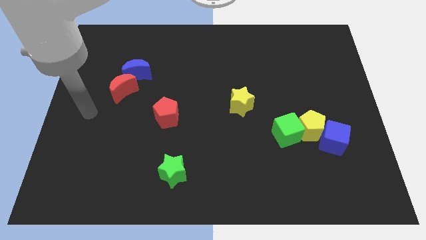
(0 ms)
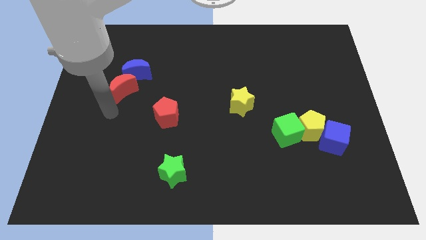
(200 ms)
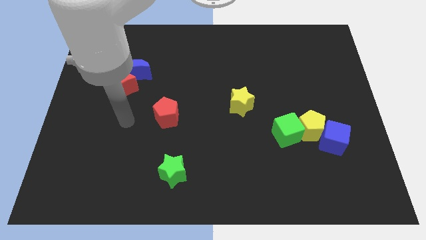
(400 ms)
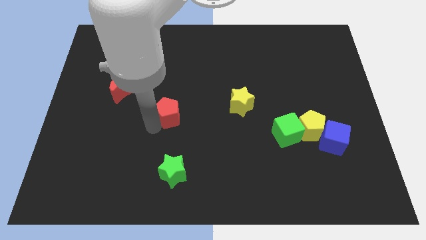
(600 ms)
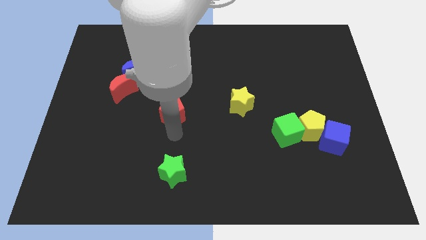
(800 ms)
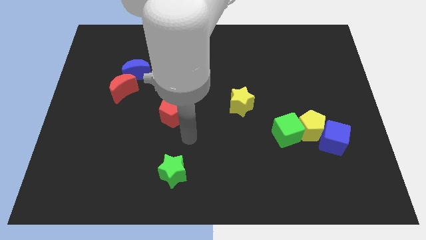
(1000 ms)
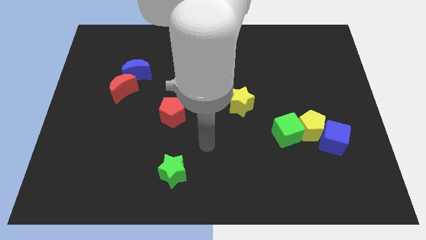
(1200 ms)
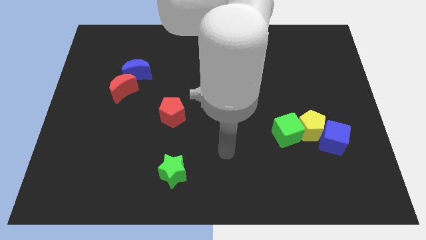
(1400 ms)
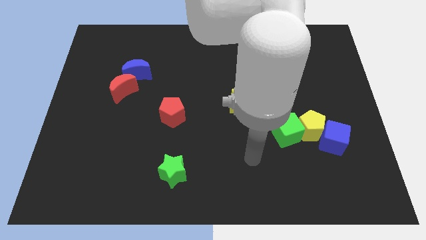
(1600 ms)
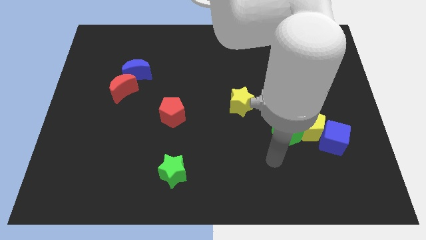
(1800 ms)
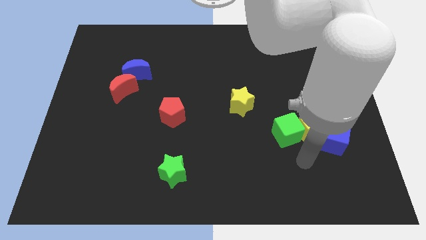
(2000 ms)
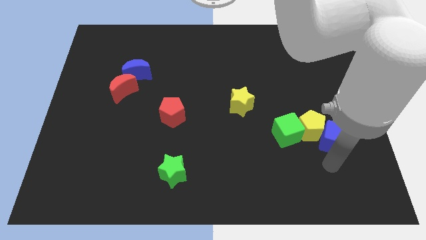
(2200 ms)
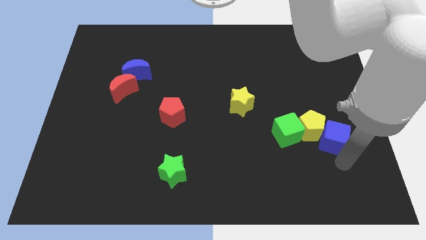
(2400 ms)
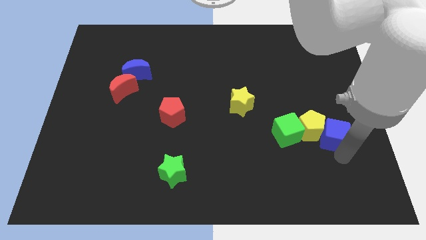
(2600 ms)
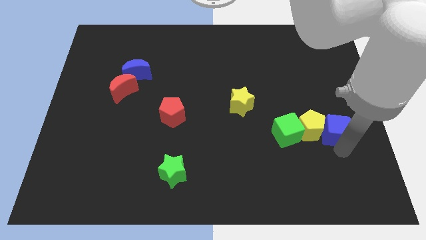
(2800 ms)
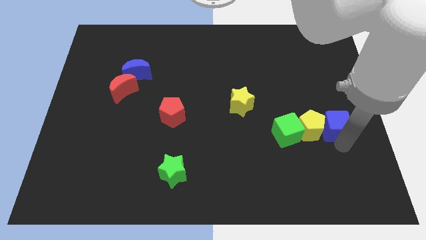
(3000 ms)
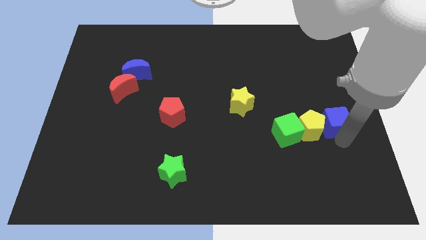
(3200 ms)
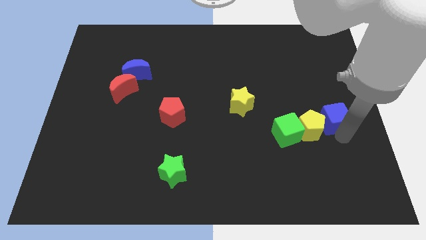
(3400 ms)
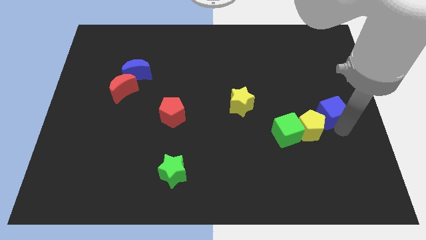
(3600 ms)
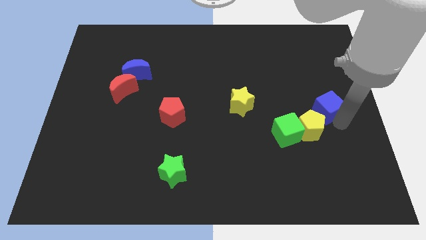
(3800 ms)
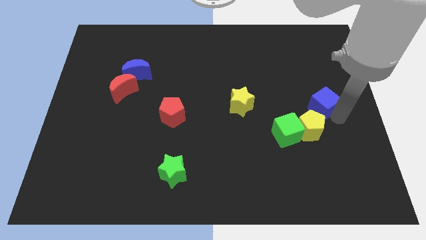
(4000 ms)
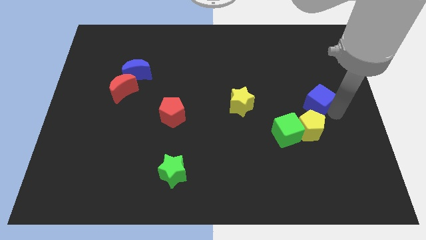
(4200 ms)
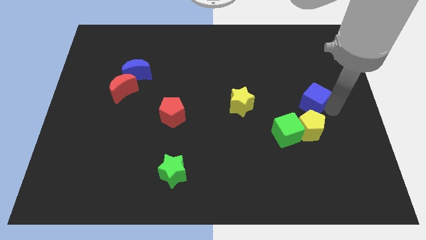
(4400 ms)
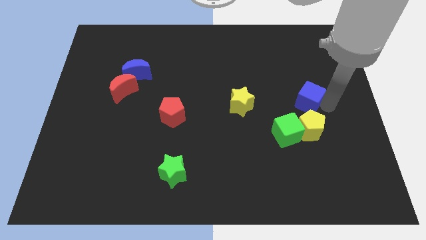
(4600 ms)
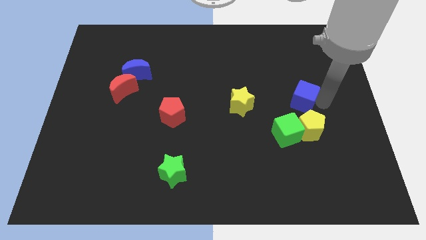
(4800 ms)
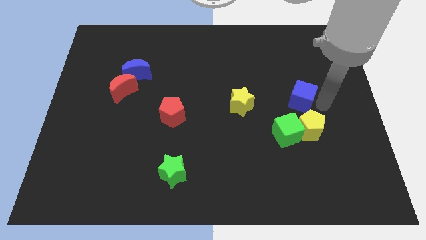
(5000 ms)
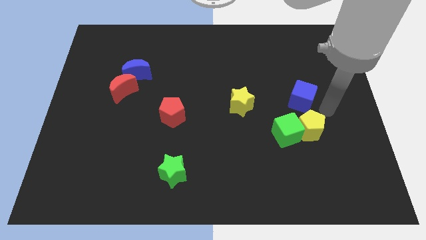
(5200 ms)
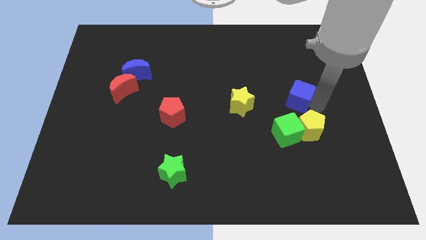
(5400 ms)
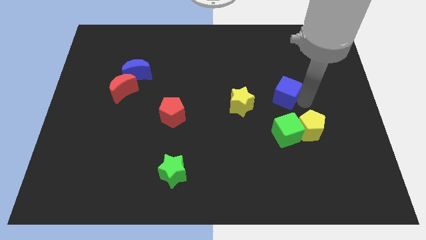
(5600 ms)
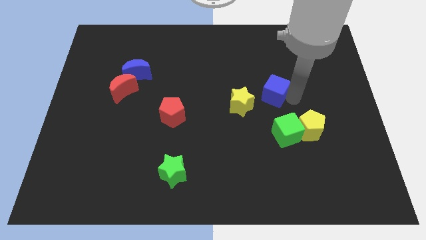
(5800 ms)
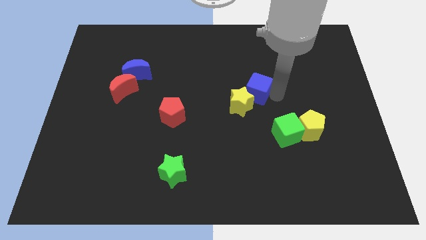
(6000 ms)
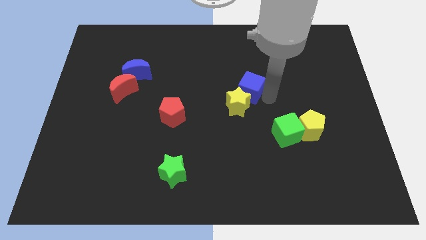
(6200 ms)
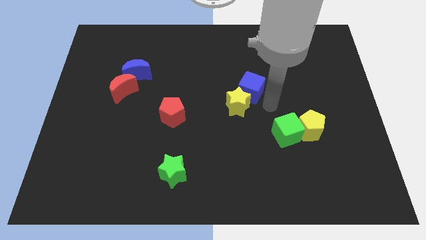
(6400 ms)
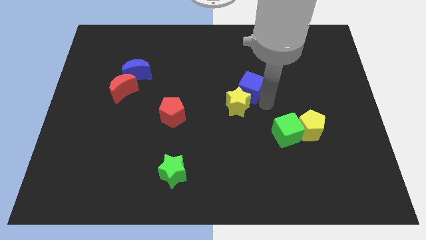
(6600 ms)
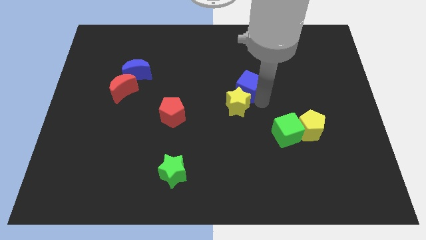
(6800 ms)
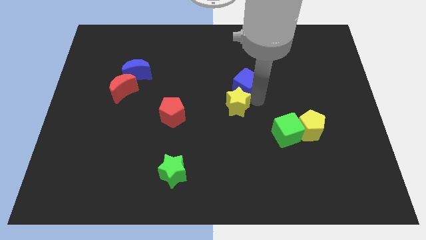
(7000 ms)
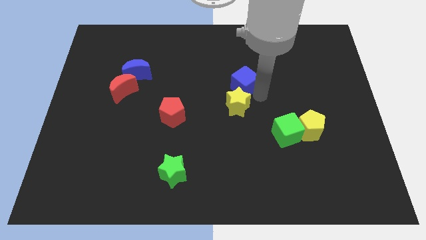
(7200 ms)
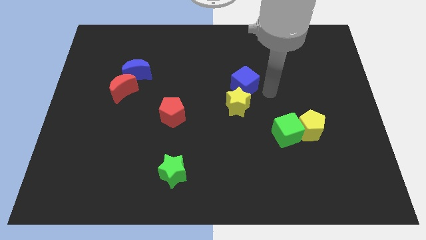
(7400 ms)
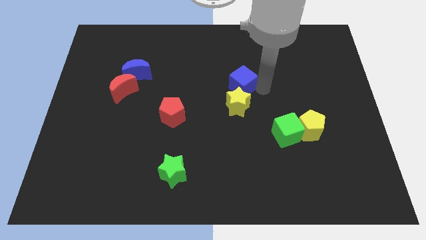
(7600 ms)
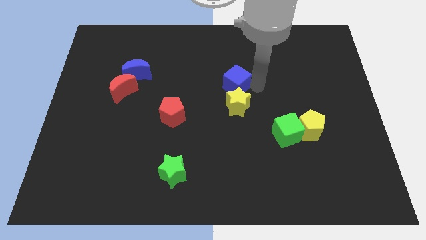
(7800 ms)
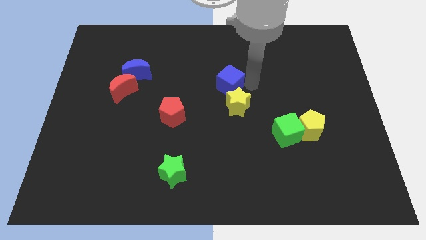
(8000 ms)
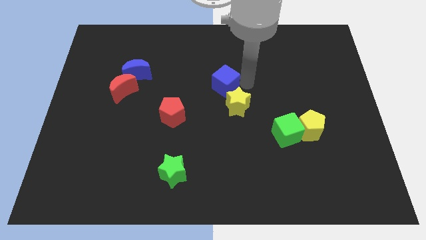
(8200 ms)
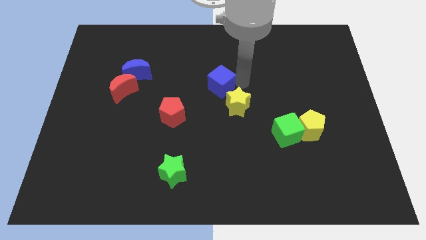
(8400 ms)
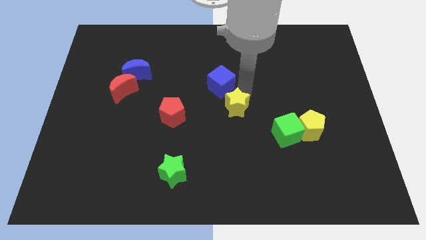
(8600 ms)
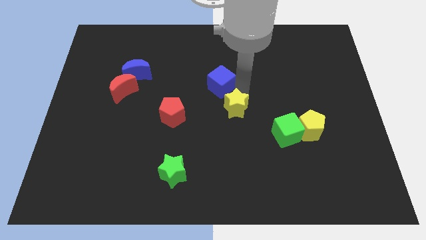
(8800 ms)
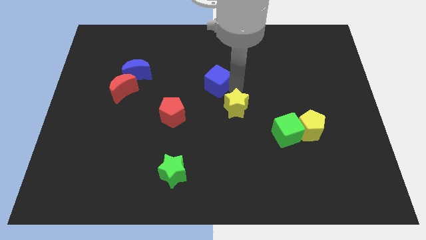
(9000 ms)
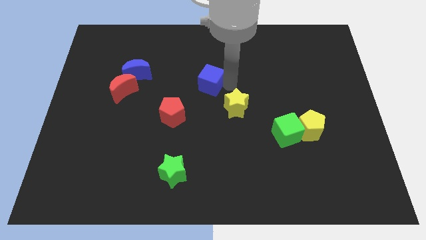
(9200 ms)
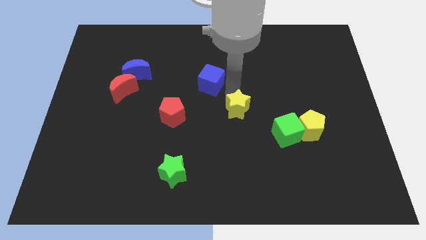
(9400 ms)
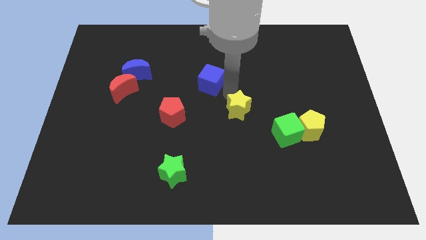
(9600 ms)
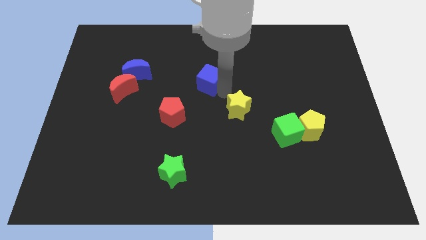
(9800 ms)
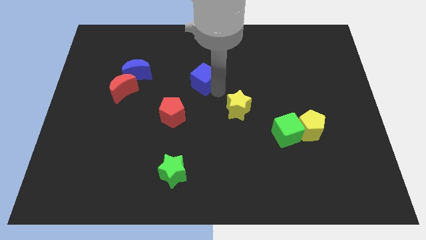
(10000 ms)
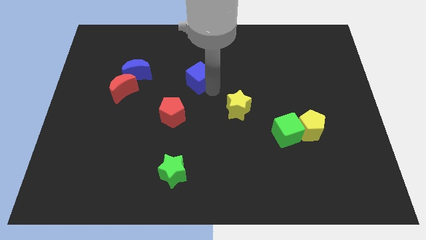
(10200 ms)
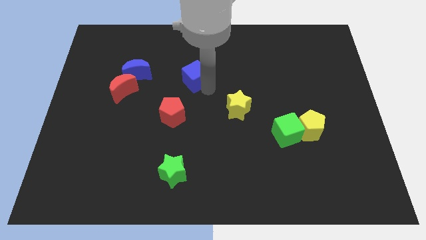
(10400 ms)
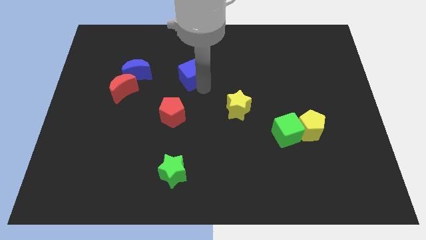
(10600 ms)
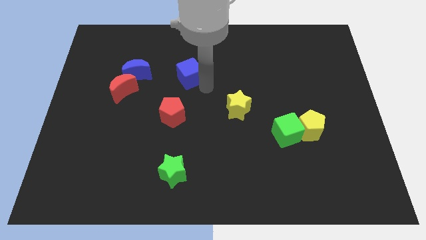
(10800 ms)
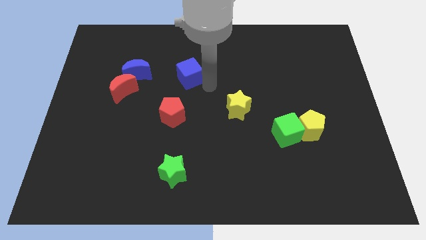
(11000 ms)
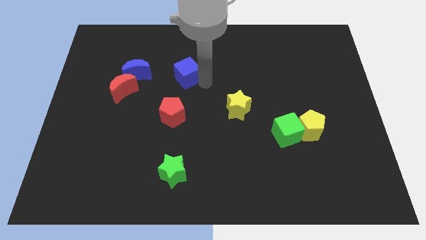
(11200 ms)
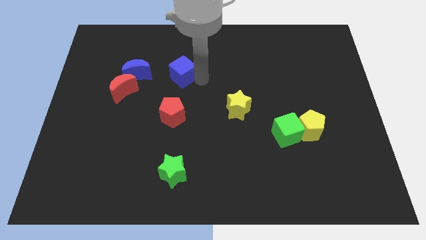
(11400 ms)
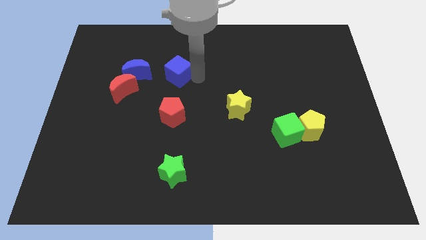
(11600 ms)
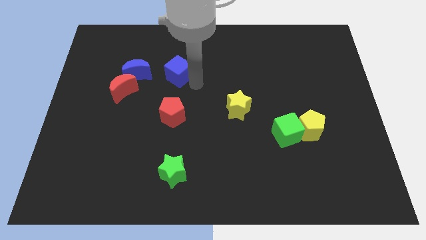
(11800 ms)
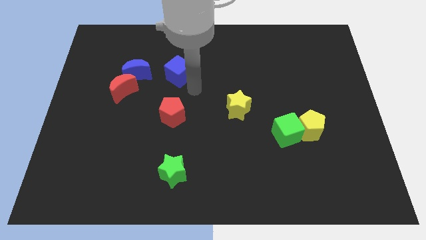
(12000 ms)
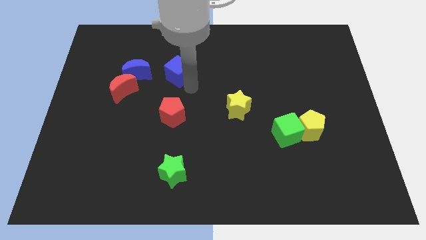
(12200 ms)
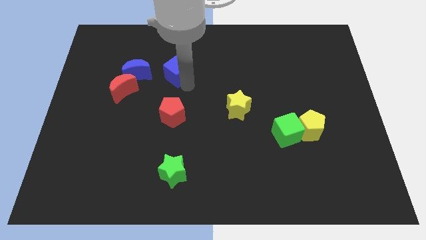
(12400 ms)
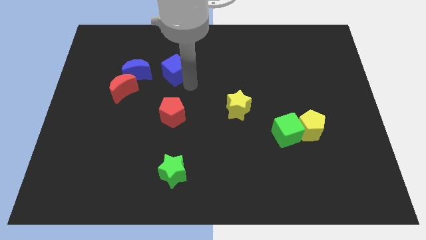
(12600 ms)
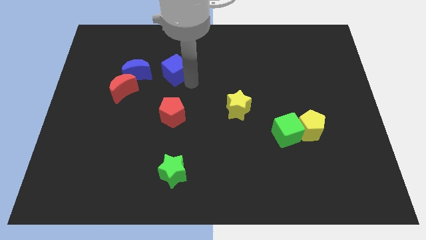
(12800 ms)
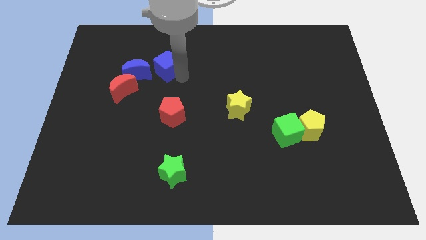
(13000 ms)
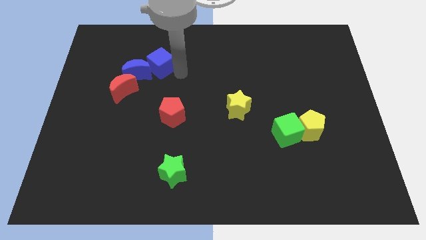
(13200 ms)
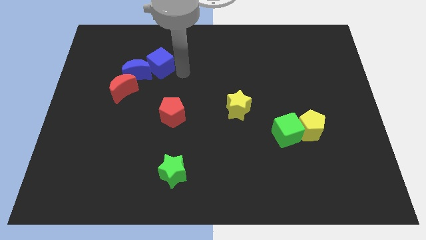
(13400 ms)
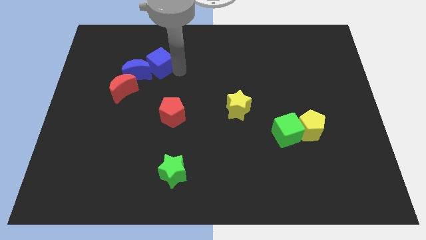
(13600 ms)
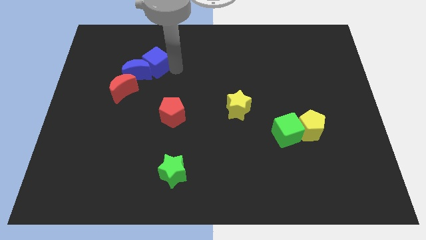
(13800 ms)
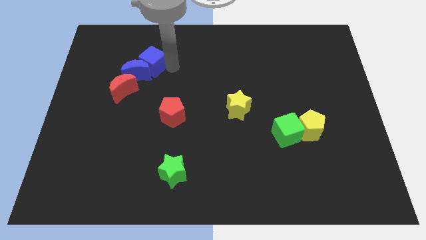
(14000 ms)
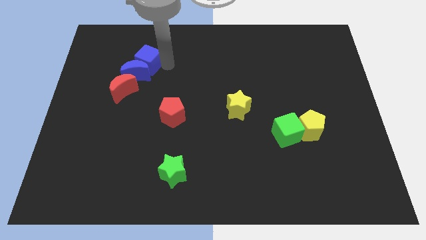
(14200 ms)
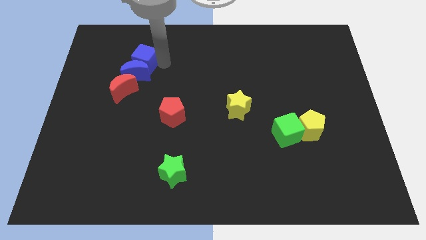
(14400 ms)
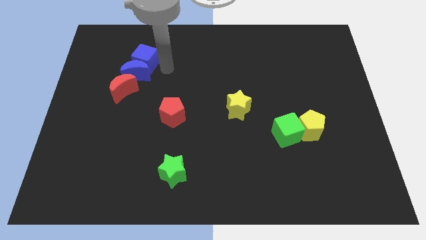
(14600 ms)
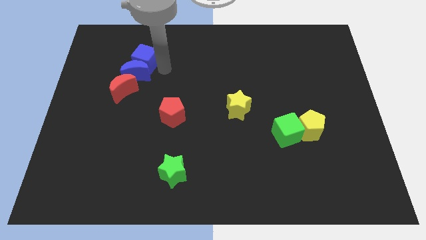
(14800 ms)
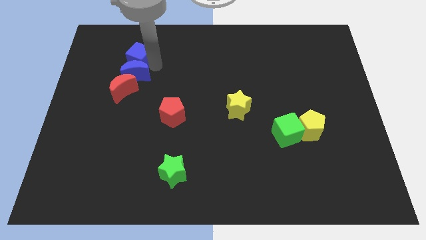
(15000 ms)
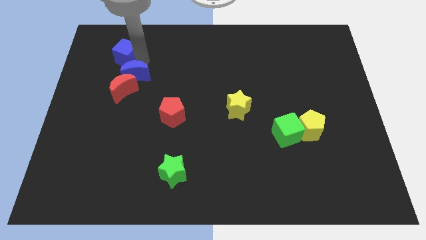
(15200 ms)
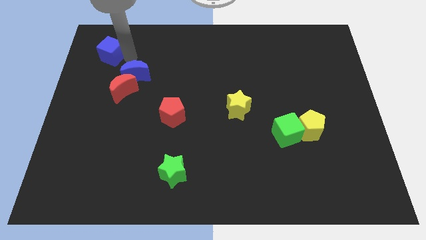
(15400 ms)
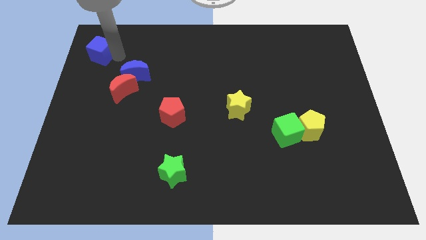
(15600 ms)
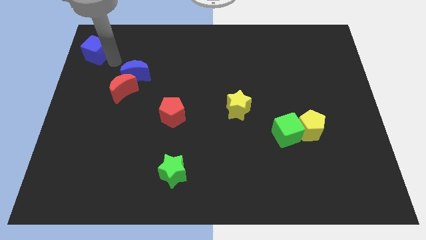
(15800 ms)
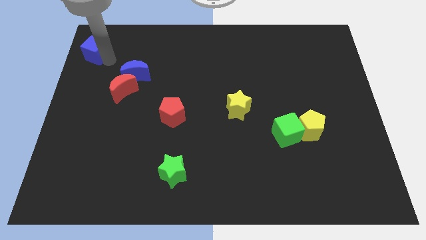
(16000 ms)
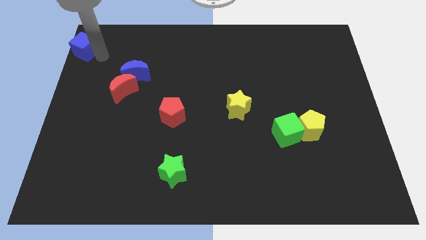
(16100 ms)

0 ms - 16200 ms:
push the blue cube to the top left of the board
